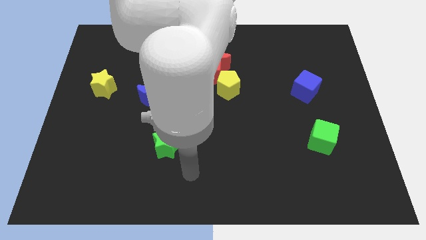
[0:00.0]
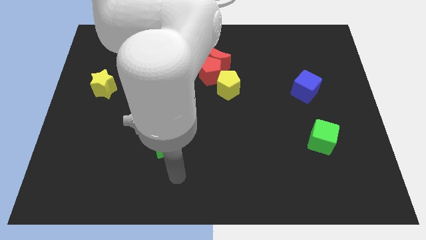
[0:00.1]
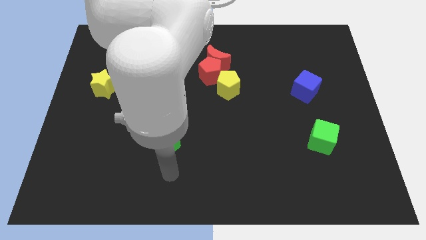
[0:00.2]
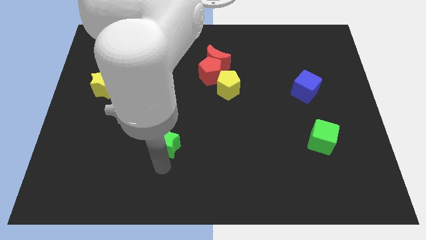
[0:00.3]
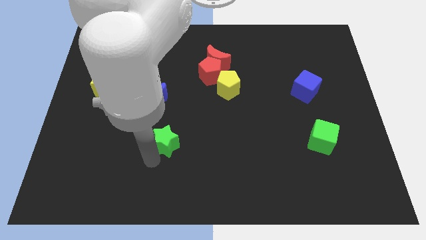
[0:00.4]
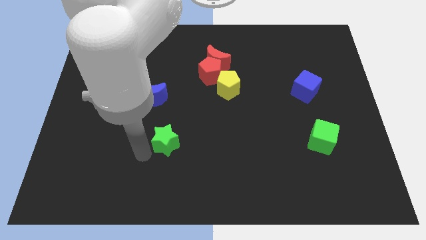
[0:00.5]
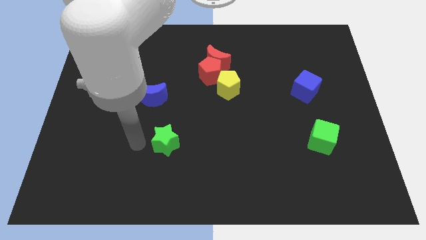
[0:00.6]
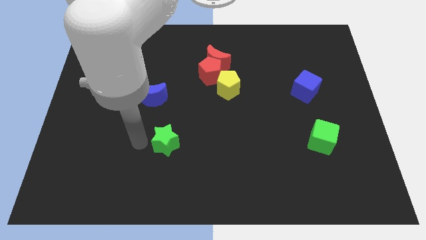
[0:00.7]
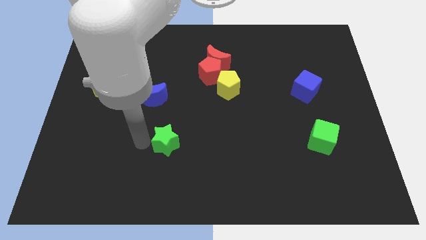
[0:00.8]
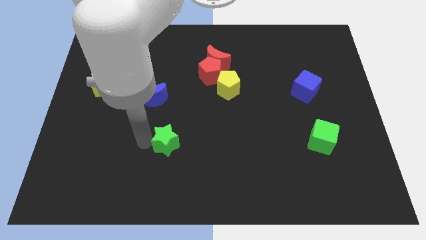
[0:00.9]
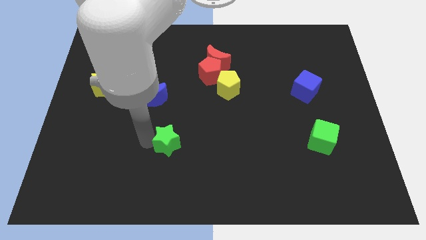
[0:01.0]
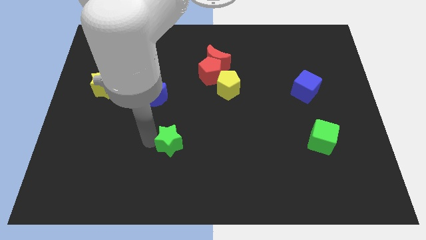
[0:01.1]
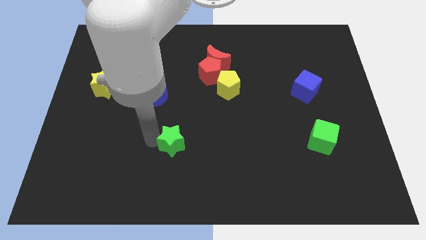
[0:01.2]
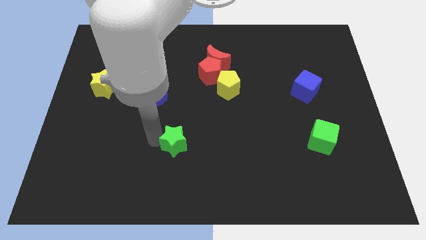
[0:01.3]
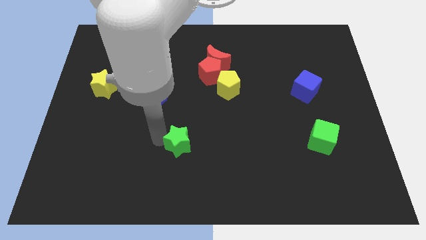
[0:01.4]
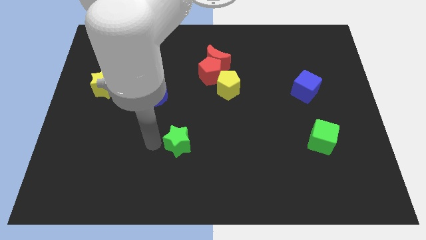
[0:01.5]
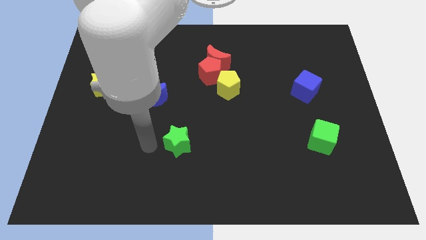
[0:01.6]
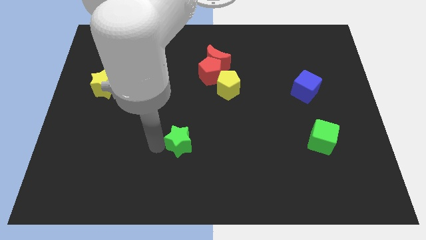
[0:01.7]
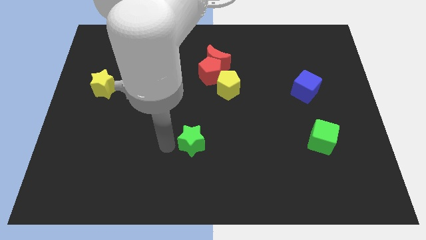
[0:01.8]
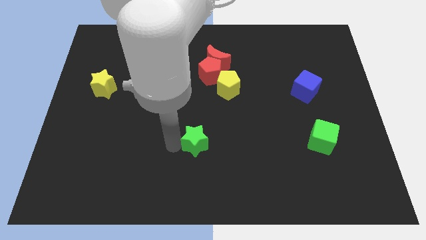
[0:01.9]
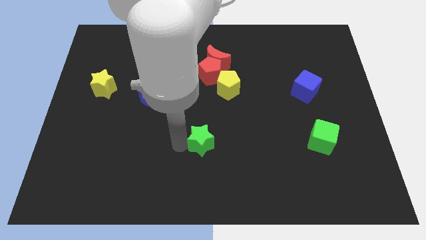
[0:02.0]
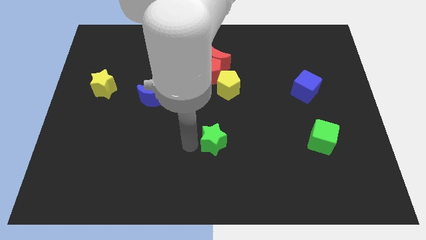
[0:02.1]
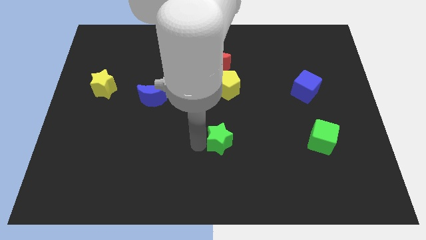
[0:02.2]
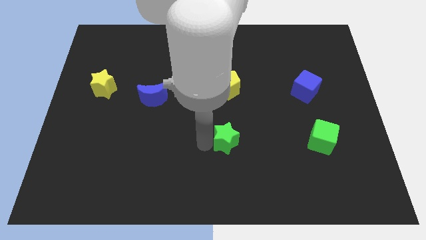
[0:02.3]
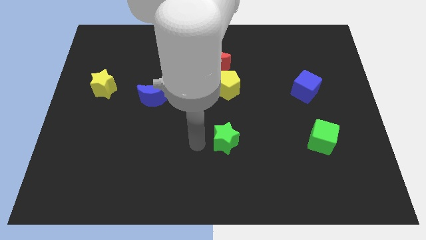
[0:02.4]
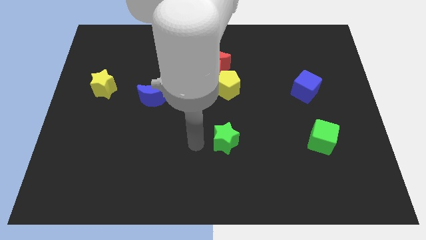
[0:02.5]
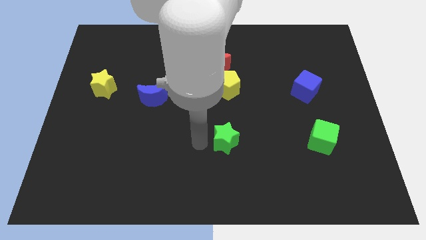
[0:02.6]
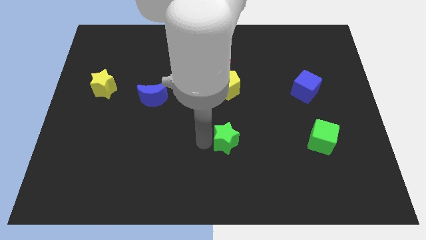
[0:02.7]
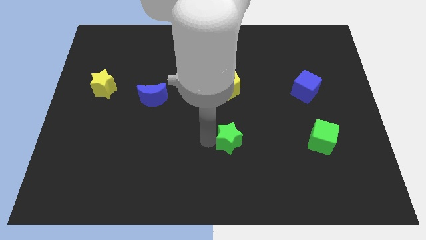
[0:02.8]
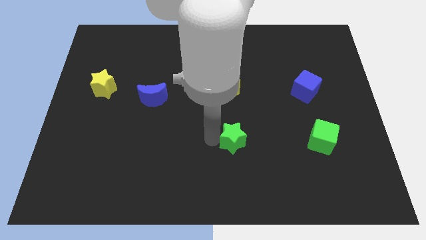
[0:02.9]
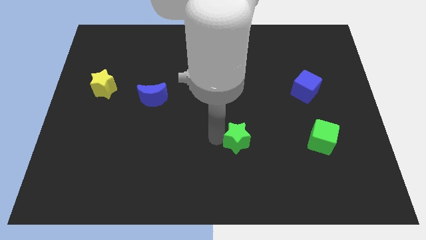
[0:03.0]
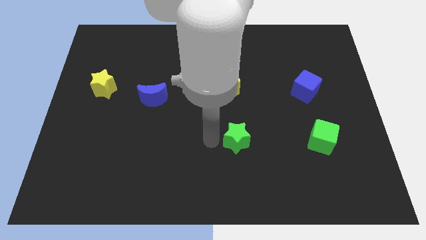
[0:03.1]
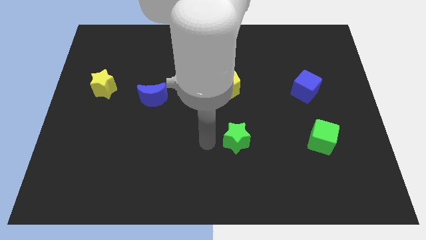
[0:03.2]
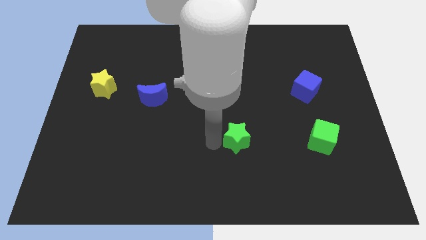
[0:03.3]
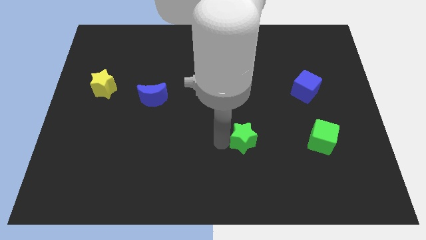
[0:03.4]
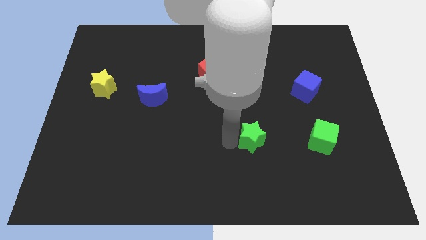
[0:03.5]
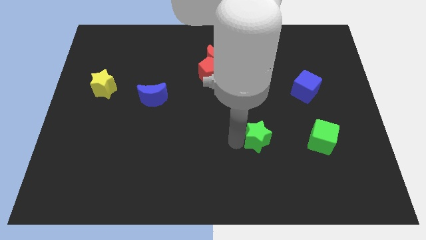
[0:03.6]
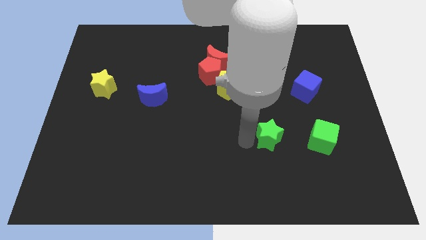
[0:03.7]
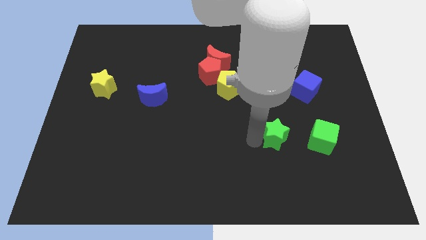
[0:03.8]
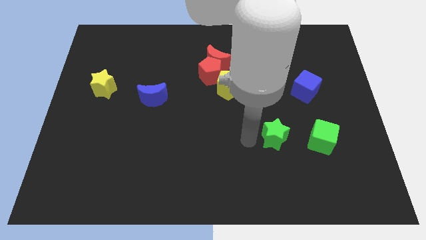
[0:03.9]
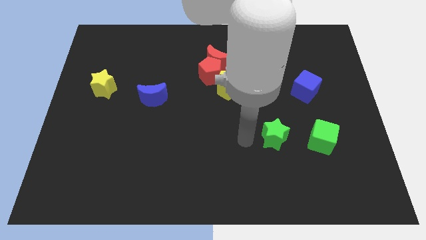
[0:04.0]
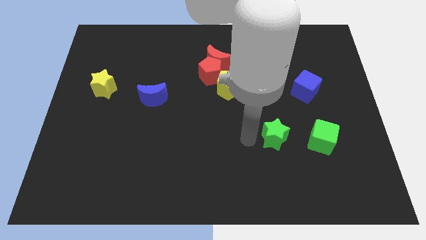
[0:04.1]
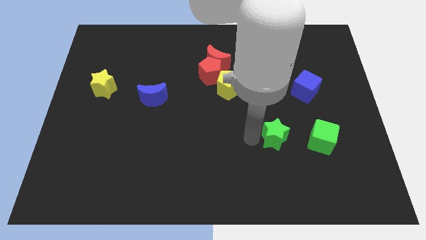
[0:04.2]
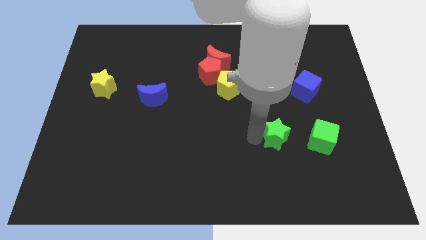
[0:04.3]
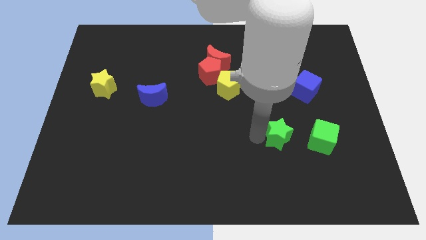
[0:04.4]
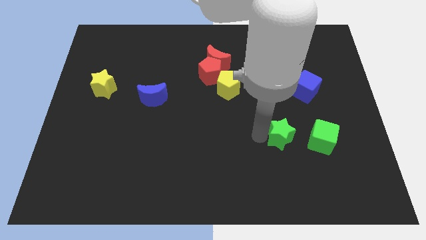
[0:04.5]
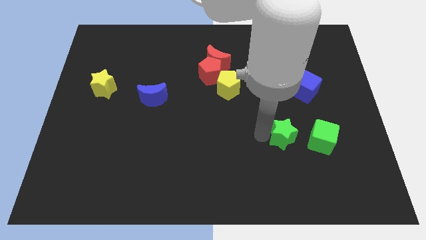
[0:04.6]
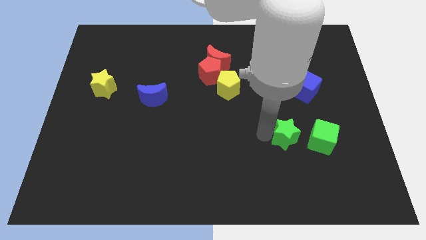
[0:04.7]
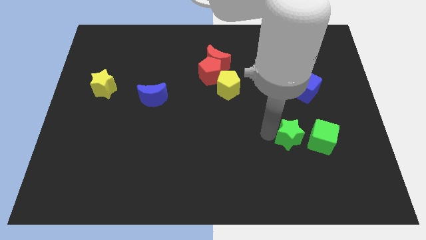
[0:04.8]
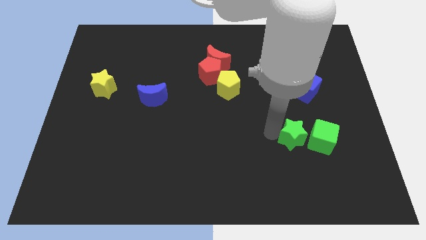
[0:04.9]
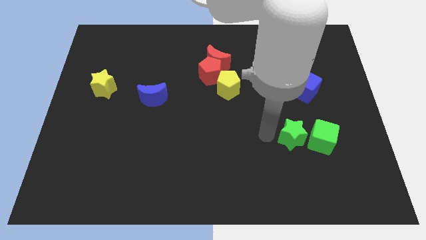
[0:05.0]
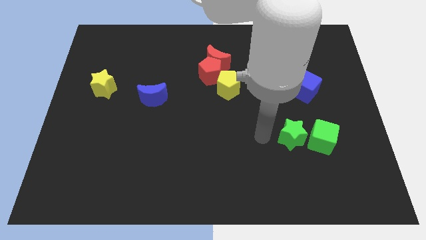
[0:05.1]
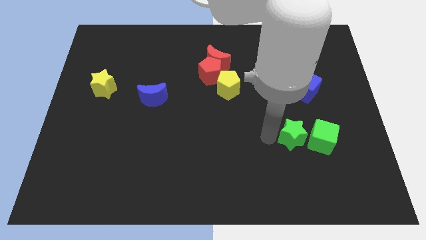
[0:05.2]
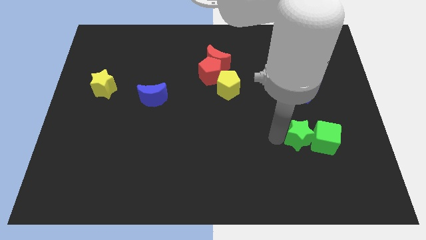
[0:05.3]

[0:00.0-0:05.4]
move the green star towards the green cube

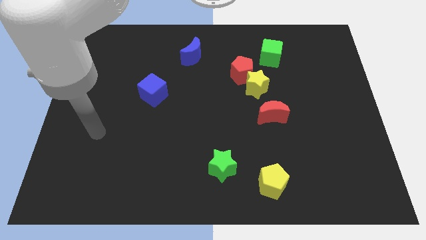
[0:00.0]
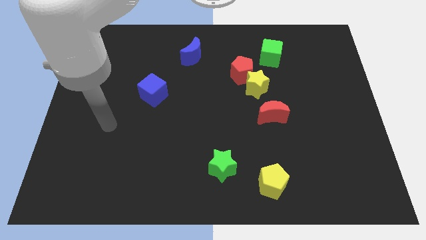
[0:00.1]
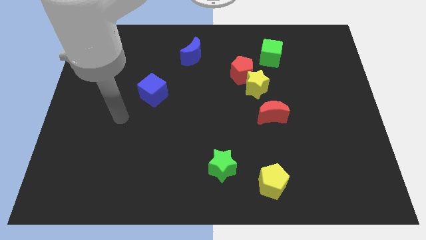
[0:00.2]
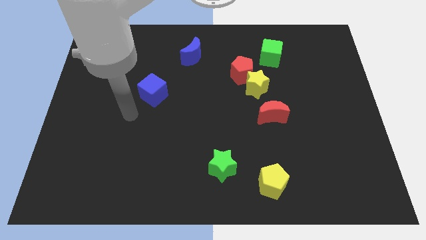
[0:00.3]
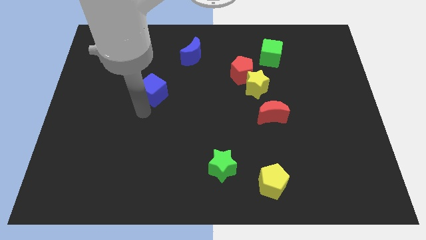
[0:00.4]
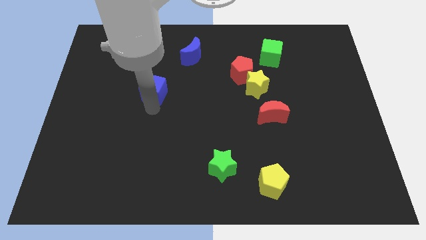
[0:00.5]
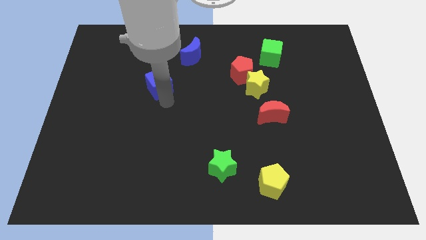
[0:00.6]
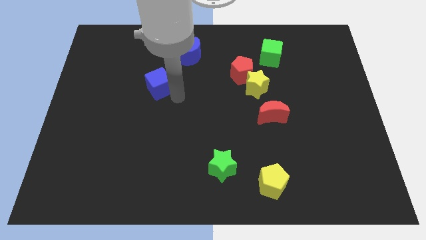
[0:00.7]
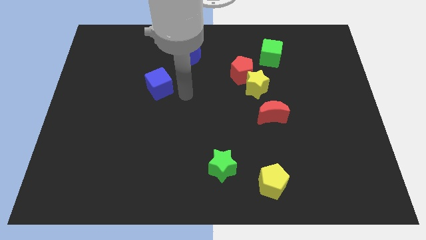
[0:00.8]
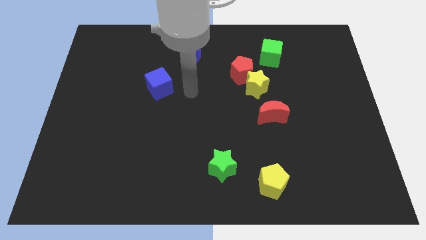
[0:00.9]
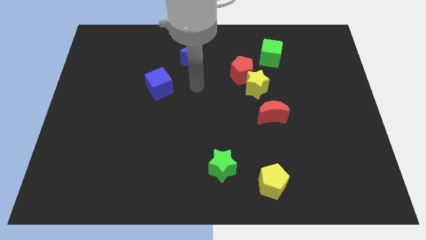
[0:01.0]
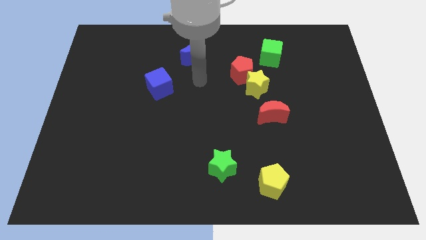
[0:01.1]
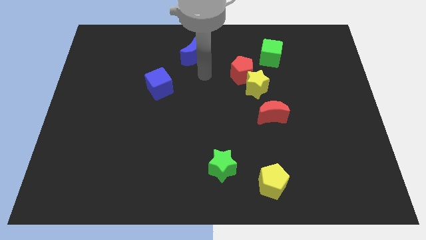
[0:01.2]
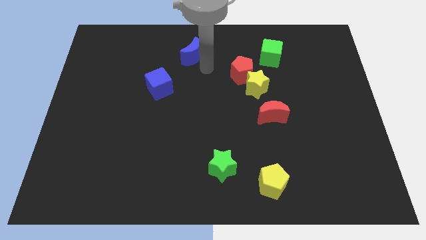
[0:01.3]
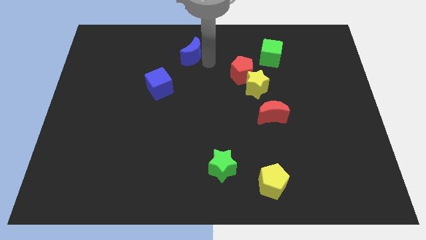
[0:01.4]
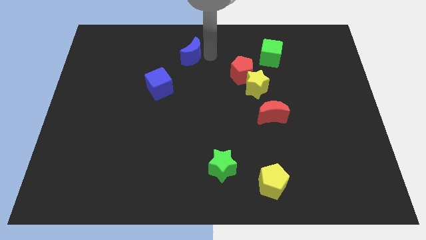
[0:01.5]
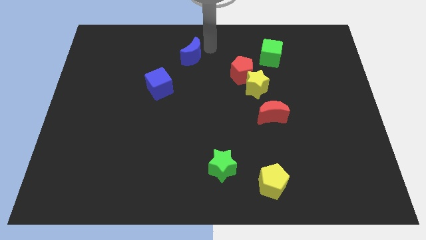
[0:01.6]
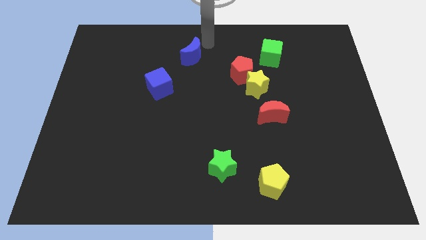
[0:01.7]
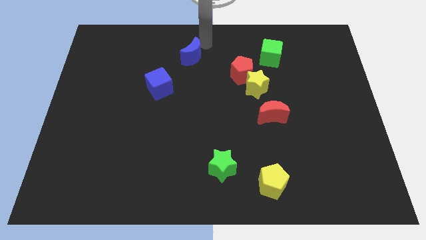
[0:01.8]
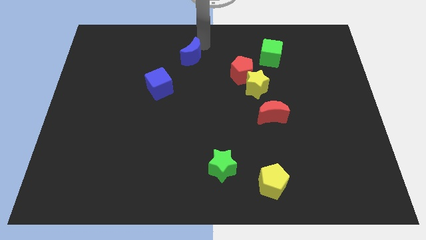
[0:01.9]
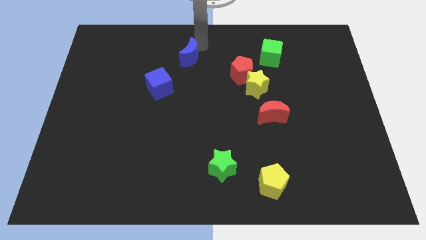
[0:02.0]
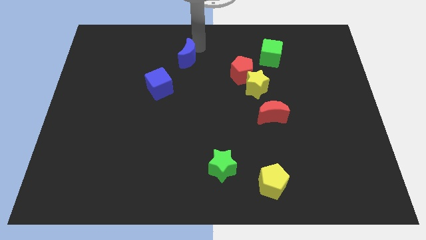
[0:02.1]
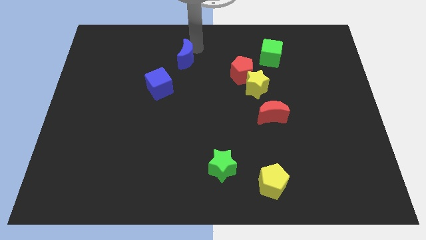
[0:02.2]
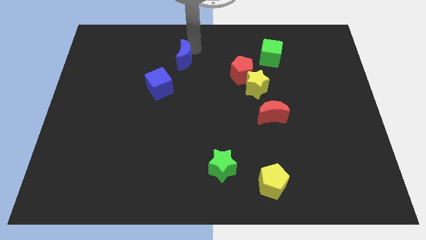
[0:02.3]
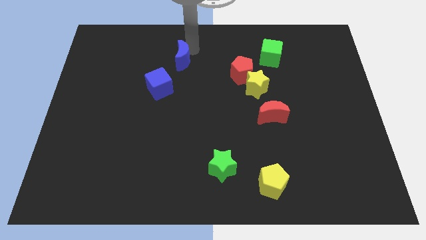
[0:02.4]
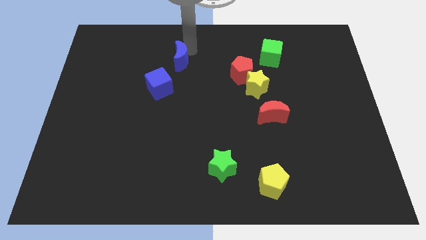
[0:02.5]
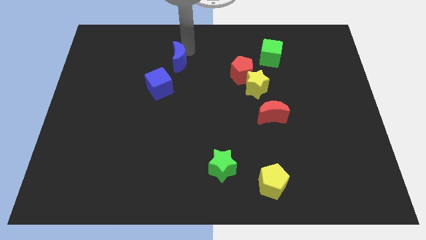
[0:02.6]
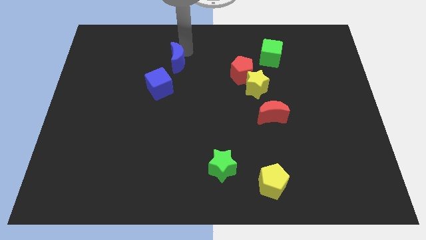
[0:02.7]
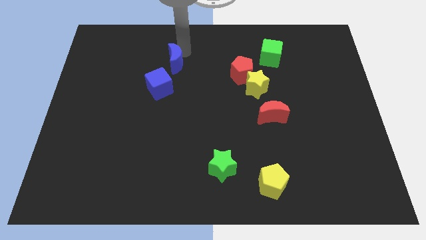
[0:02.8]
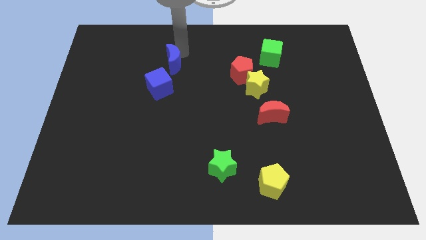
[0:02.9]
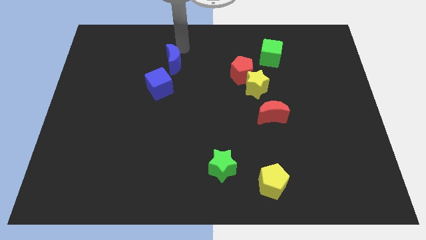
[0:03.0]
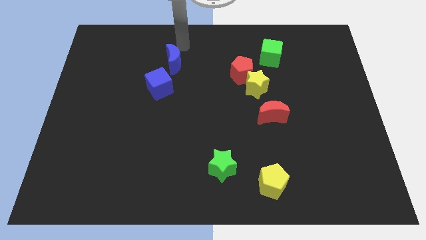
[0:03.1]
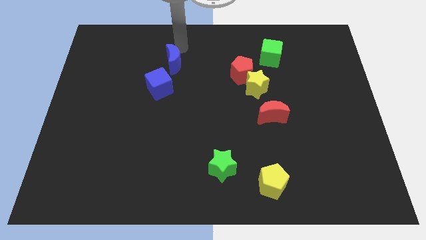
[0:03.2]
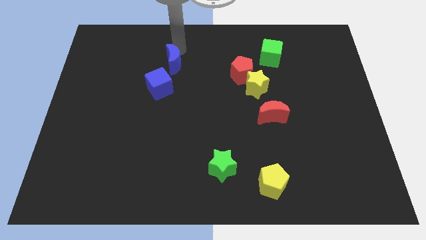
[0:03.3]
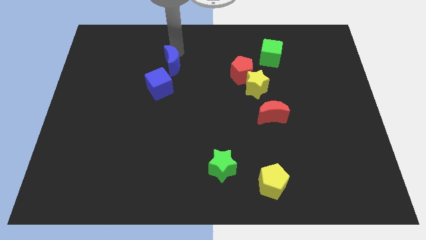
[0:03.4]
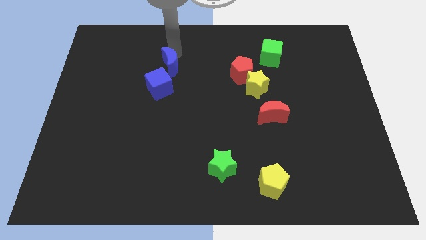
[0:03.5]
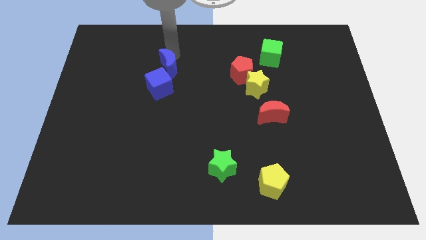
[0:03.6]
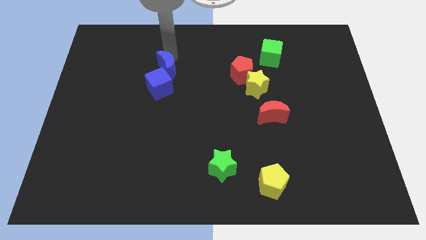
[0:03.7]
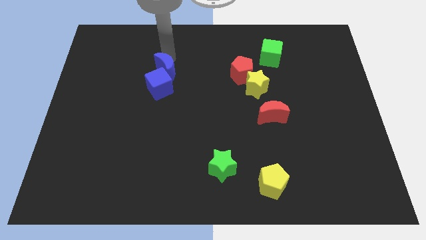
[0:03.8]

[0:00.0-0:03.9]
push the blue moon close to the blue cube
